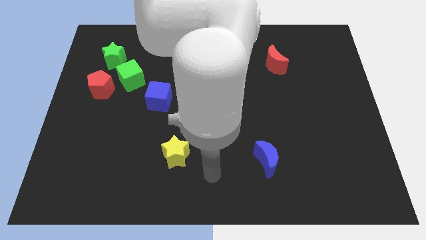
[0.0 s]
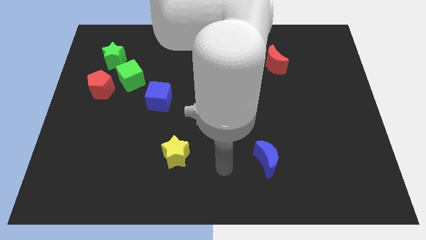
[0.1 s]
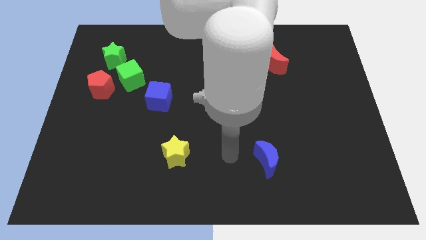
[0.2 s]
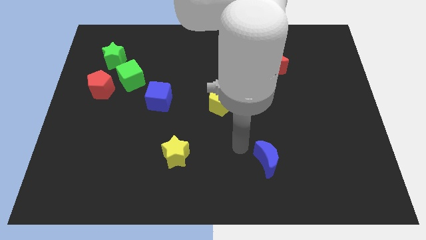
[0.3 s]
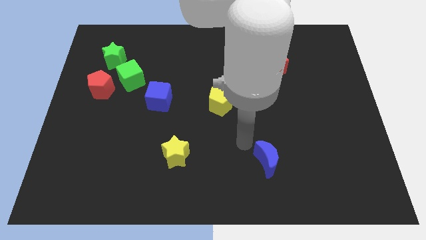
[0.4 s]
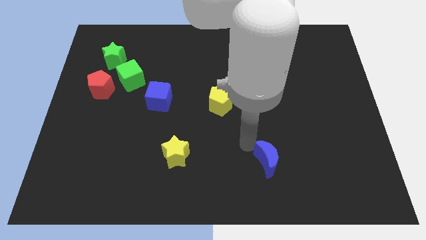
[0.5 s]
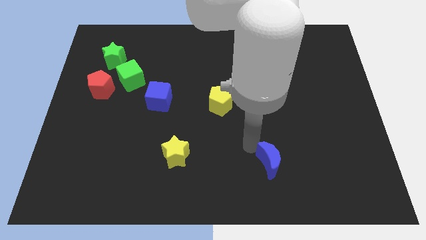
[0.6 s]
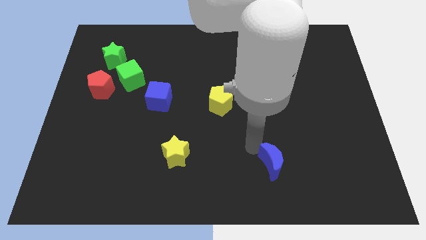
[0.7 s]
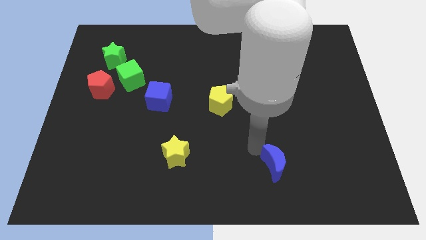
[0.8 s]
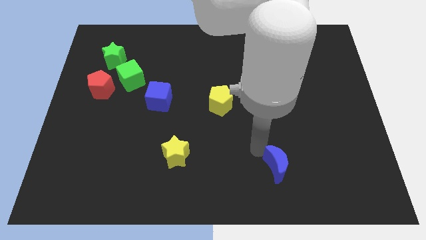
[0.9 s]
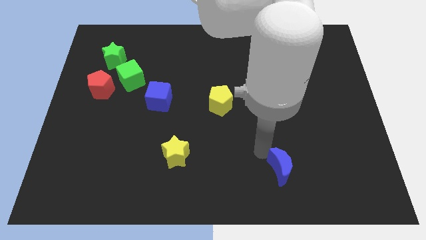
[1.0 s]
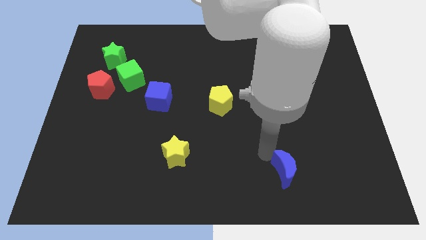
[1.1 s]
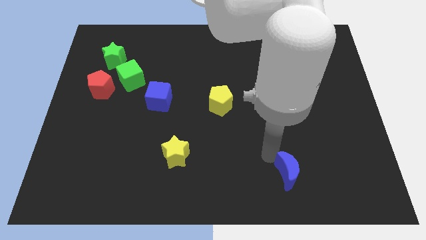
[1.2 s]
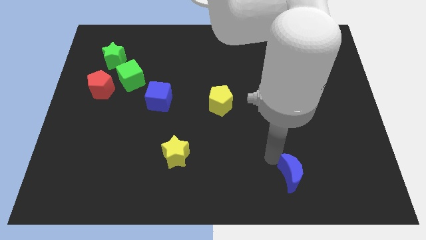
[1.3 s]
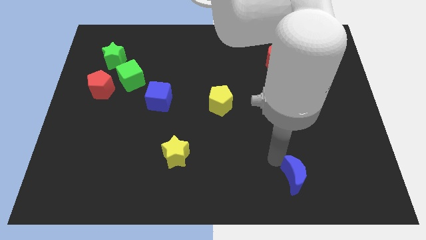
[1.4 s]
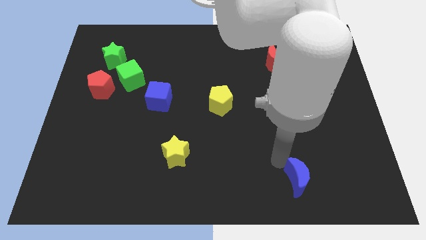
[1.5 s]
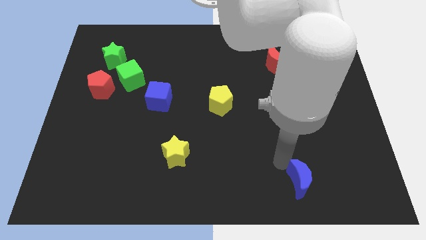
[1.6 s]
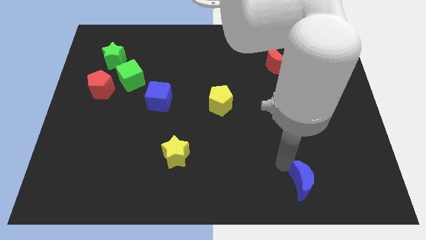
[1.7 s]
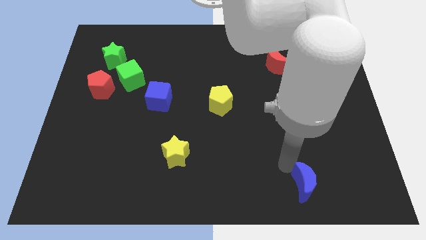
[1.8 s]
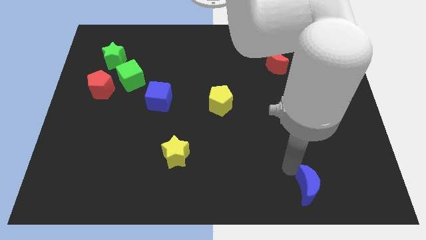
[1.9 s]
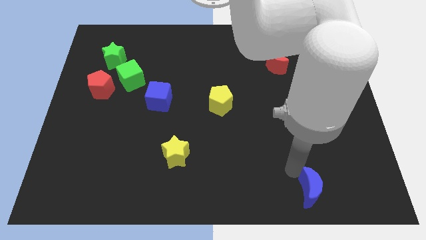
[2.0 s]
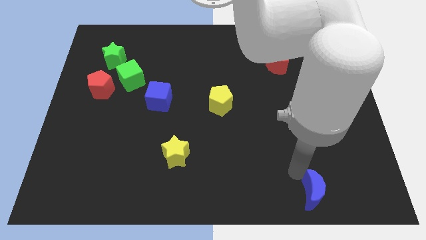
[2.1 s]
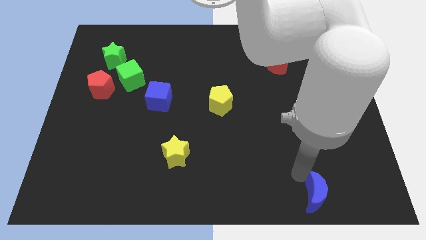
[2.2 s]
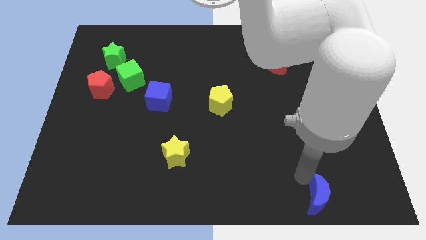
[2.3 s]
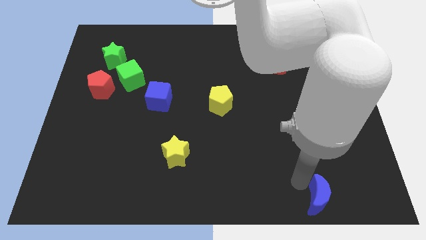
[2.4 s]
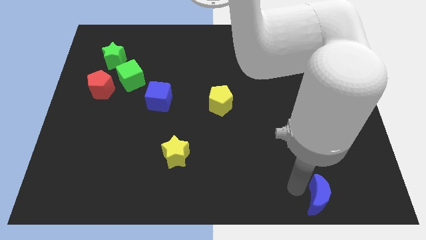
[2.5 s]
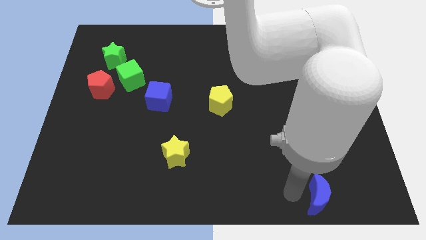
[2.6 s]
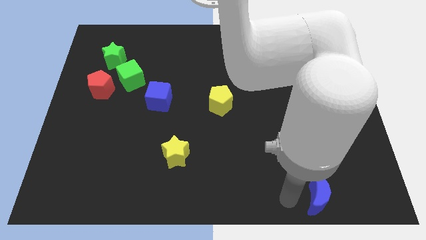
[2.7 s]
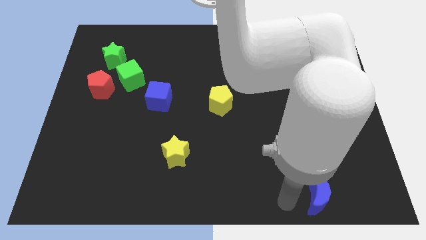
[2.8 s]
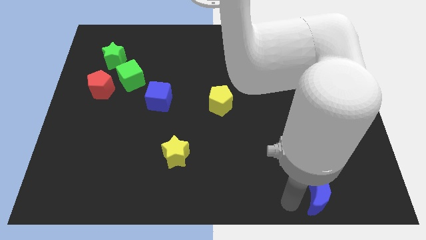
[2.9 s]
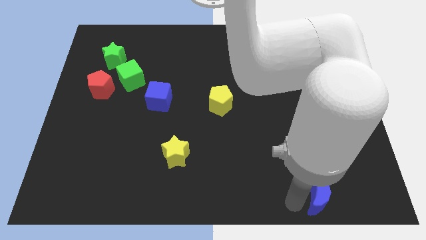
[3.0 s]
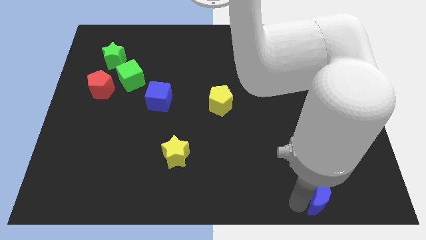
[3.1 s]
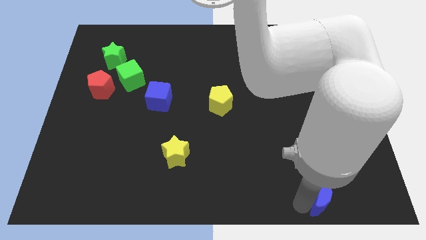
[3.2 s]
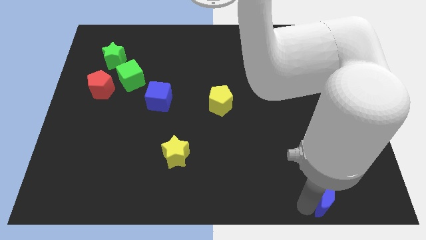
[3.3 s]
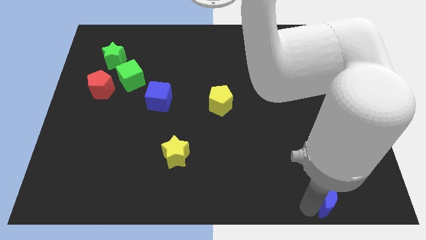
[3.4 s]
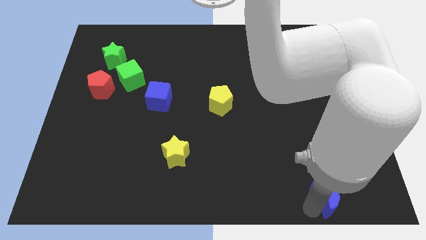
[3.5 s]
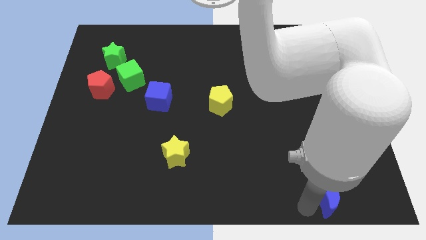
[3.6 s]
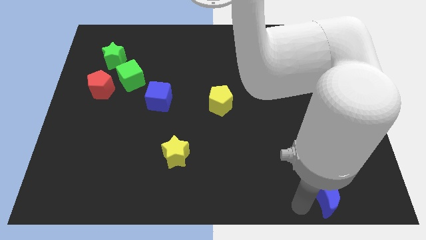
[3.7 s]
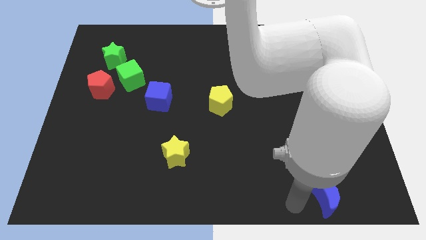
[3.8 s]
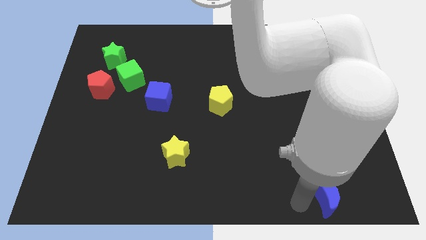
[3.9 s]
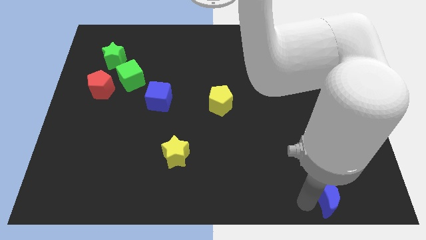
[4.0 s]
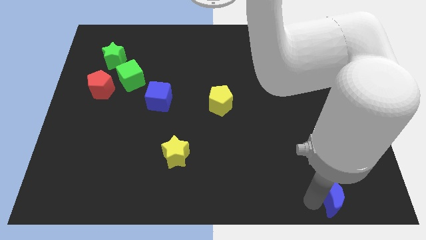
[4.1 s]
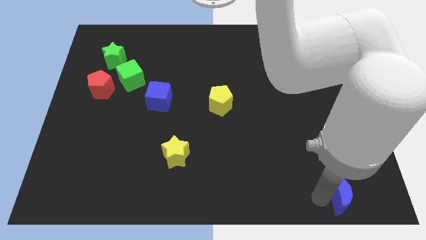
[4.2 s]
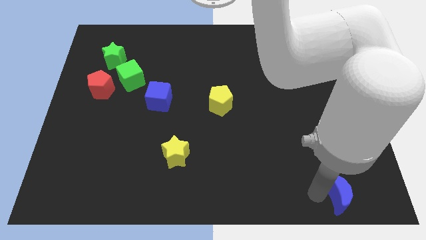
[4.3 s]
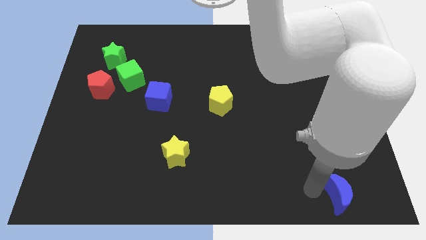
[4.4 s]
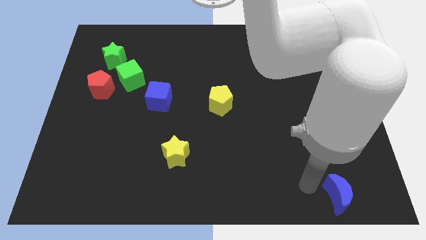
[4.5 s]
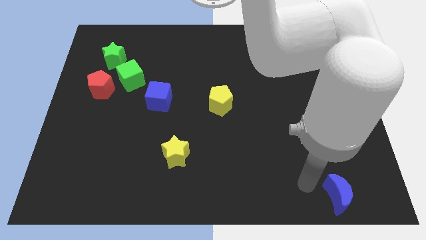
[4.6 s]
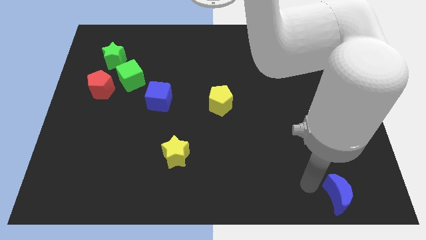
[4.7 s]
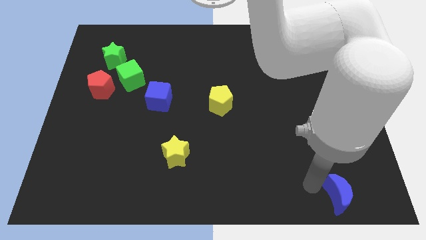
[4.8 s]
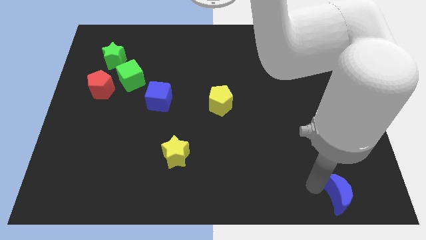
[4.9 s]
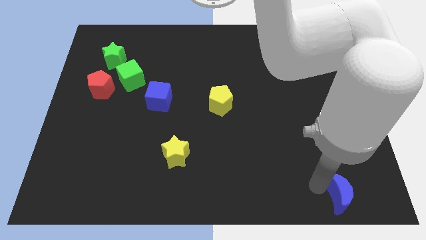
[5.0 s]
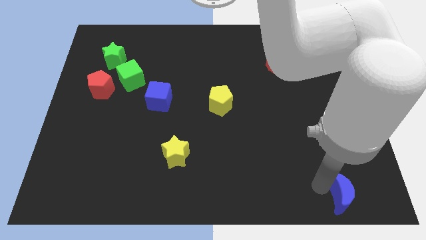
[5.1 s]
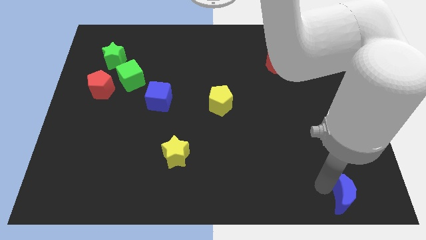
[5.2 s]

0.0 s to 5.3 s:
push the blue moon to the bottom right
